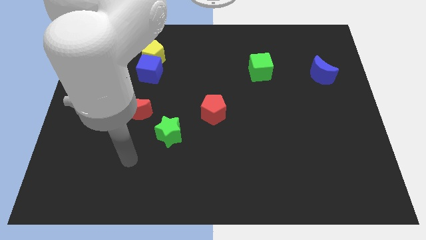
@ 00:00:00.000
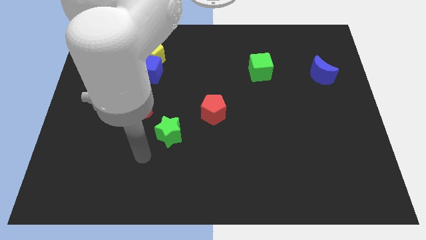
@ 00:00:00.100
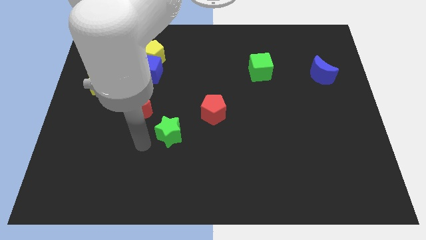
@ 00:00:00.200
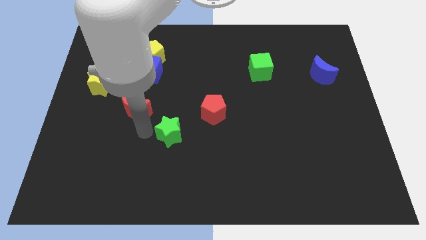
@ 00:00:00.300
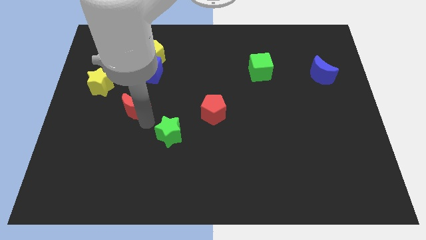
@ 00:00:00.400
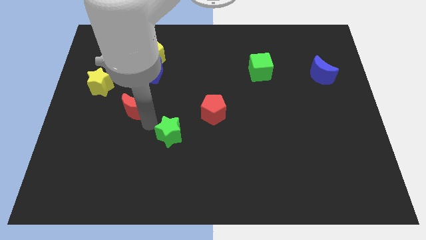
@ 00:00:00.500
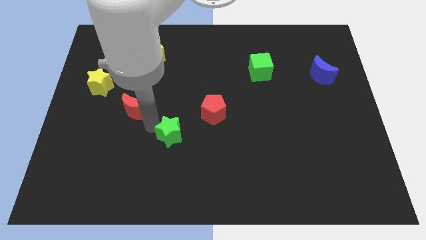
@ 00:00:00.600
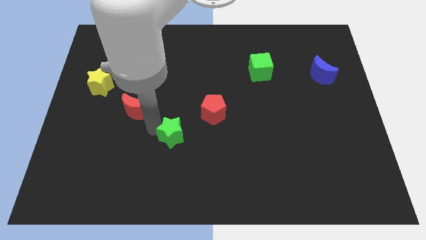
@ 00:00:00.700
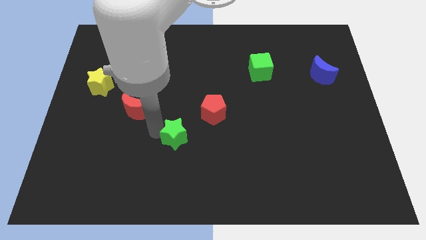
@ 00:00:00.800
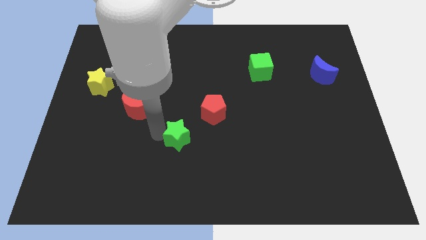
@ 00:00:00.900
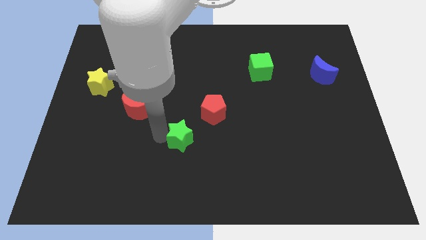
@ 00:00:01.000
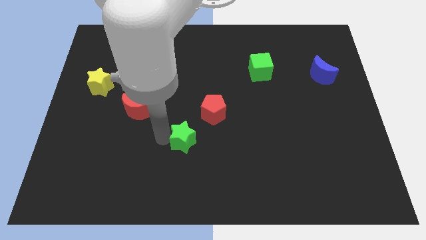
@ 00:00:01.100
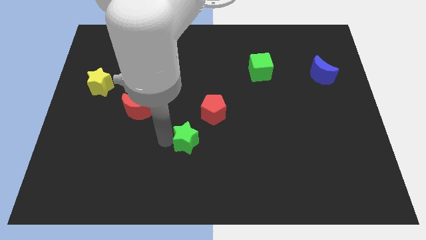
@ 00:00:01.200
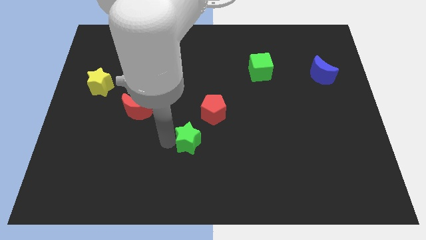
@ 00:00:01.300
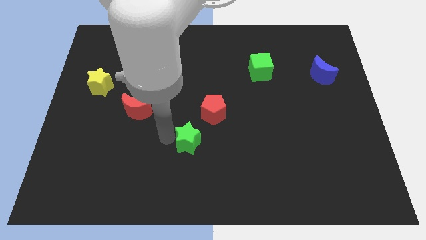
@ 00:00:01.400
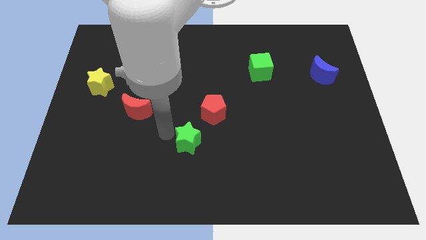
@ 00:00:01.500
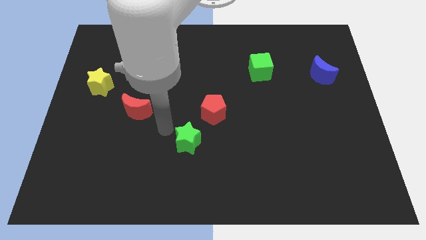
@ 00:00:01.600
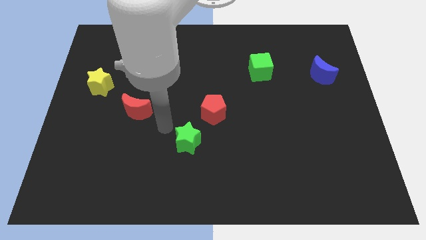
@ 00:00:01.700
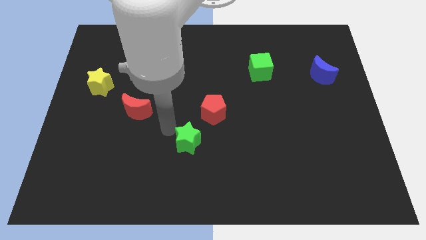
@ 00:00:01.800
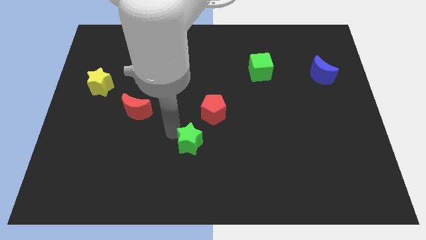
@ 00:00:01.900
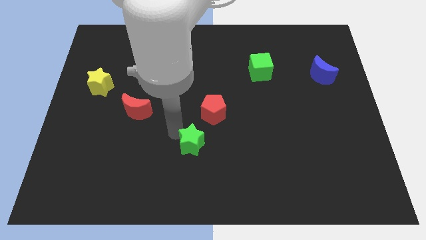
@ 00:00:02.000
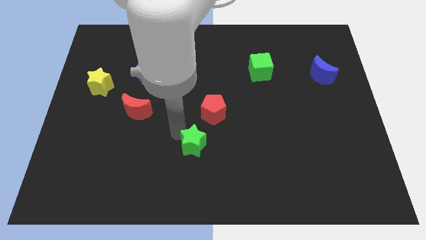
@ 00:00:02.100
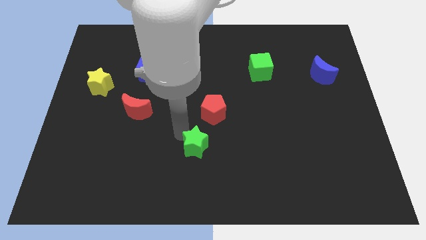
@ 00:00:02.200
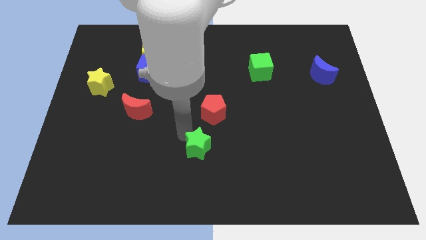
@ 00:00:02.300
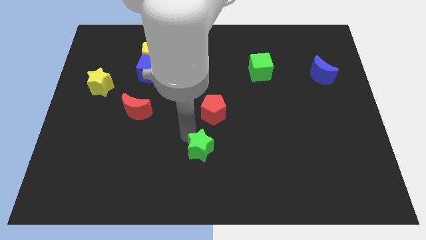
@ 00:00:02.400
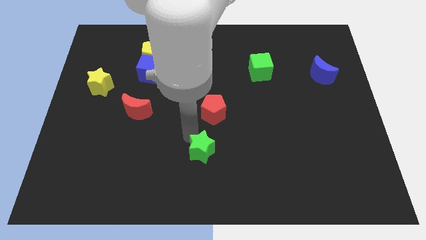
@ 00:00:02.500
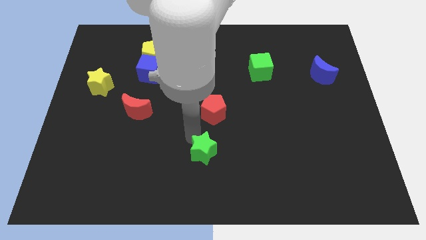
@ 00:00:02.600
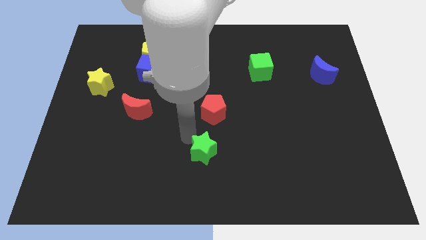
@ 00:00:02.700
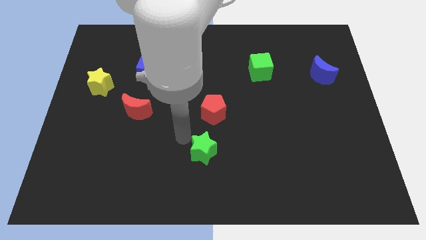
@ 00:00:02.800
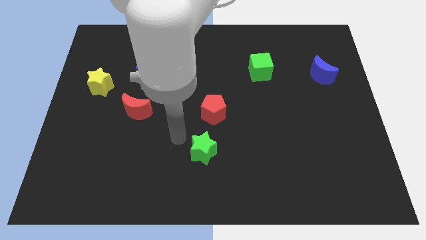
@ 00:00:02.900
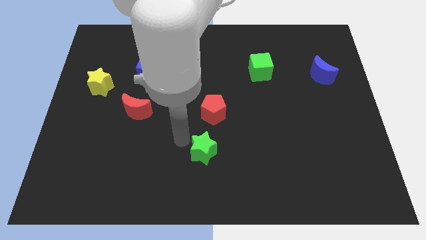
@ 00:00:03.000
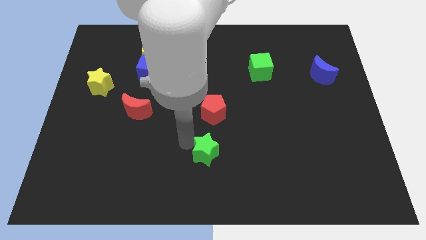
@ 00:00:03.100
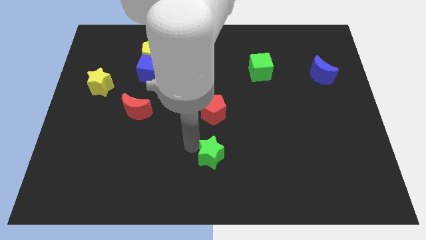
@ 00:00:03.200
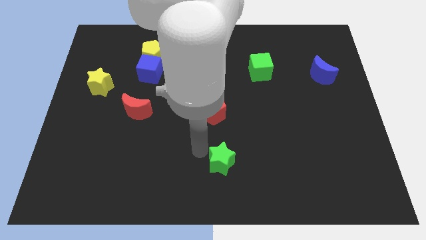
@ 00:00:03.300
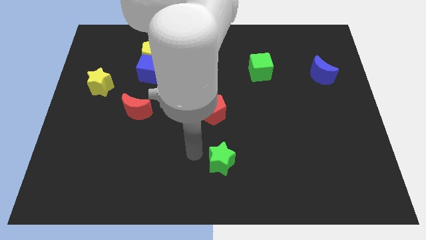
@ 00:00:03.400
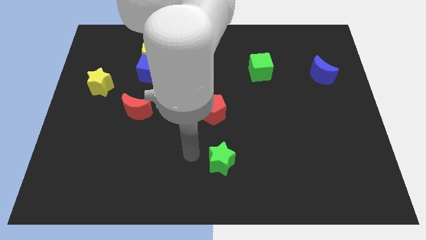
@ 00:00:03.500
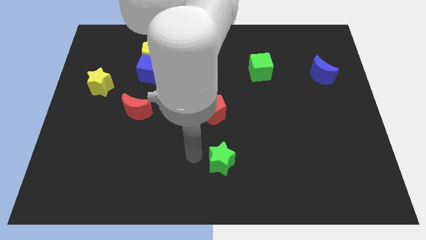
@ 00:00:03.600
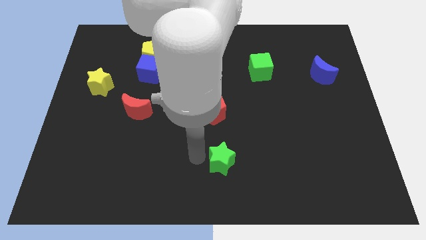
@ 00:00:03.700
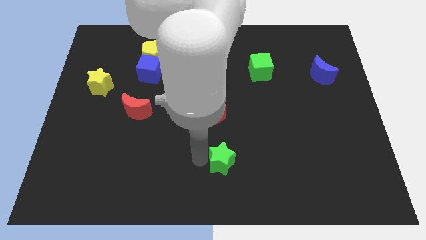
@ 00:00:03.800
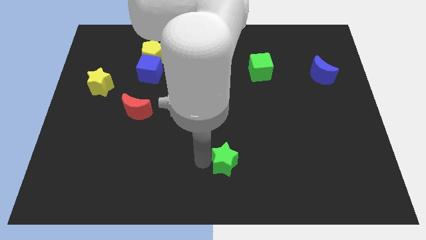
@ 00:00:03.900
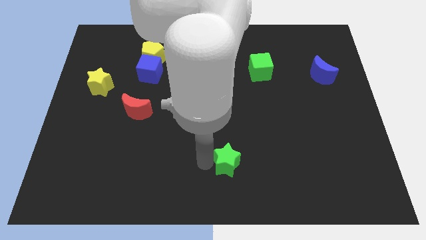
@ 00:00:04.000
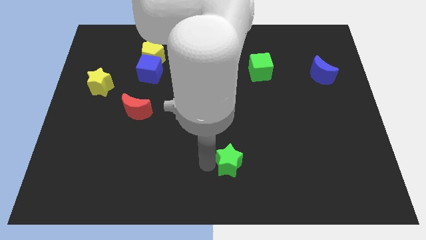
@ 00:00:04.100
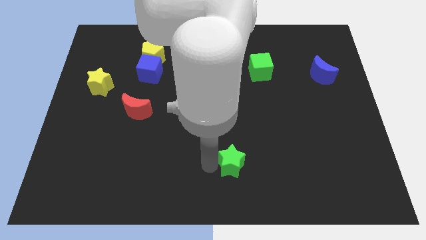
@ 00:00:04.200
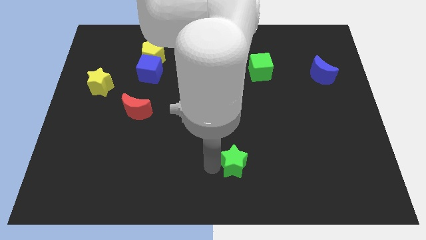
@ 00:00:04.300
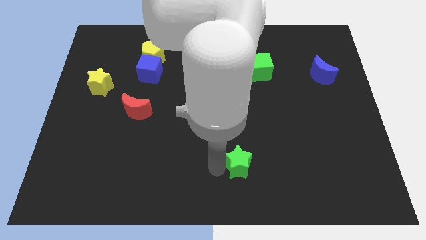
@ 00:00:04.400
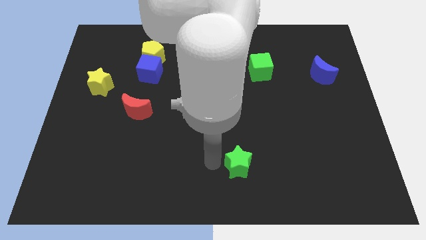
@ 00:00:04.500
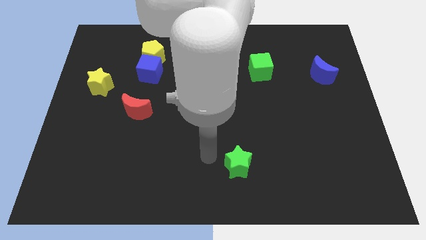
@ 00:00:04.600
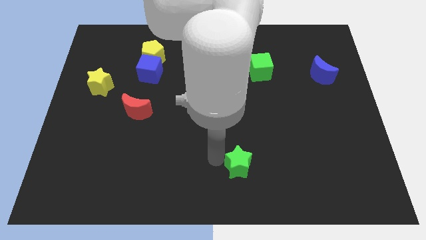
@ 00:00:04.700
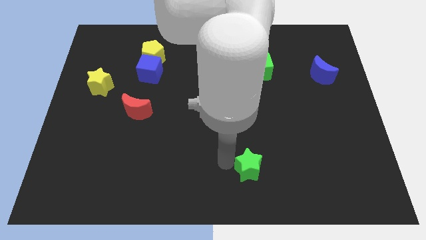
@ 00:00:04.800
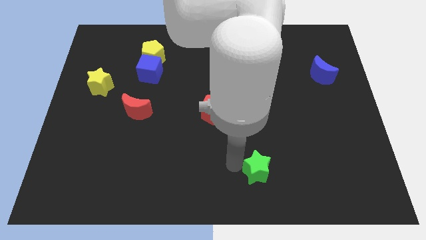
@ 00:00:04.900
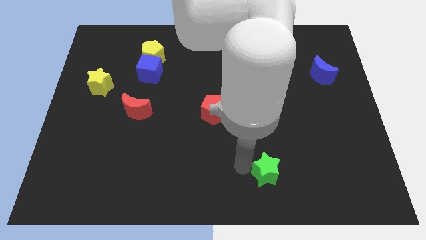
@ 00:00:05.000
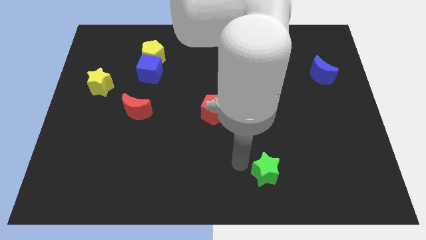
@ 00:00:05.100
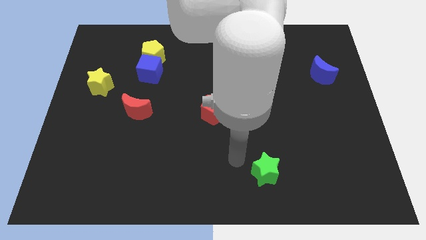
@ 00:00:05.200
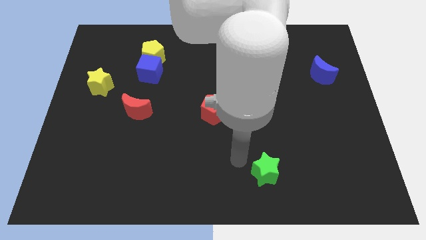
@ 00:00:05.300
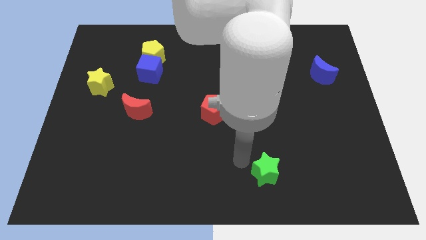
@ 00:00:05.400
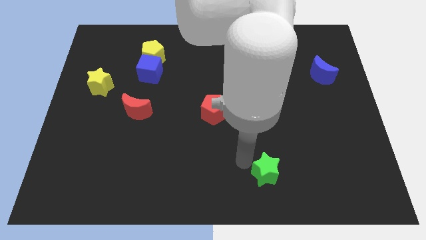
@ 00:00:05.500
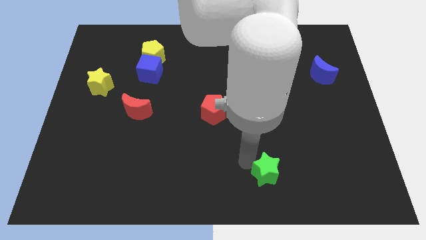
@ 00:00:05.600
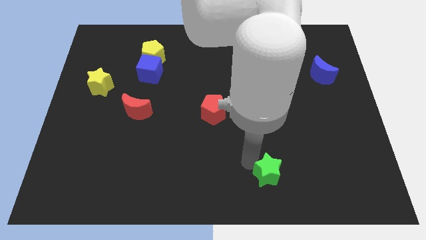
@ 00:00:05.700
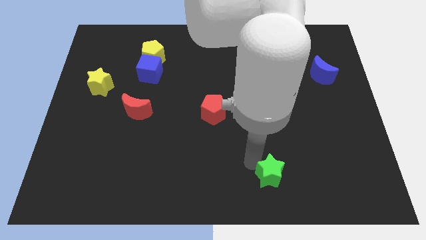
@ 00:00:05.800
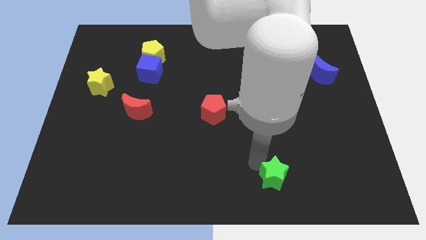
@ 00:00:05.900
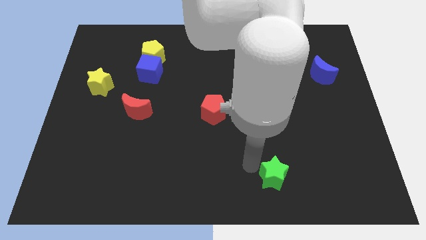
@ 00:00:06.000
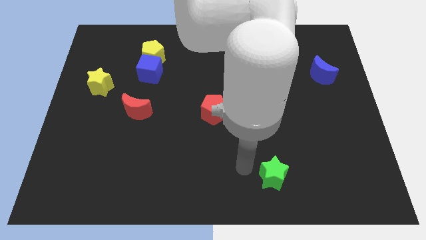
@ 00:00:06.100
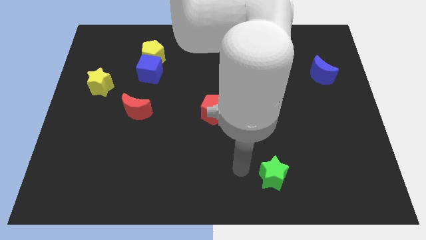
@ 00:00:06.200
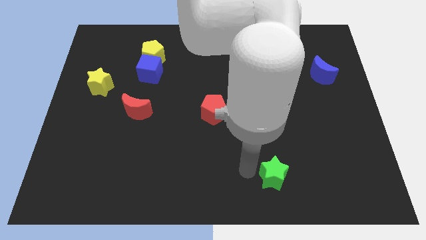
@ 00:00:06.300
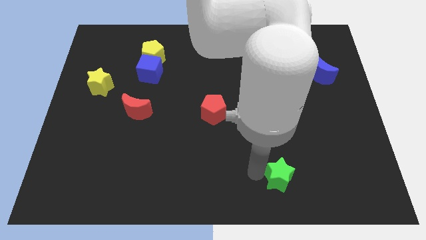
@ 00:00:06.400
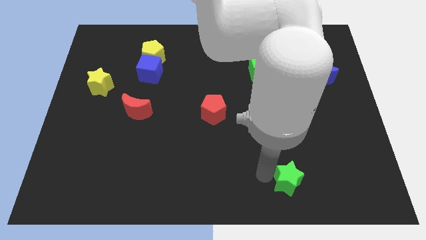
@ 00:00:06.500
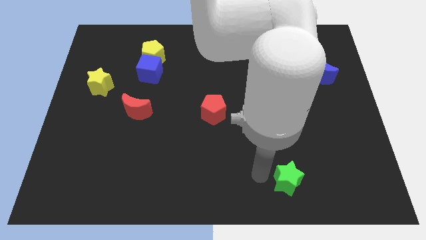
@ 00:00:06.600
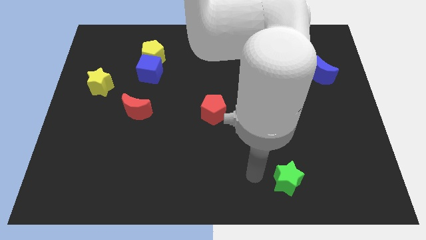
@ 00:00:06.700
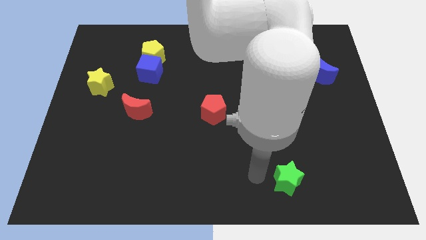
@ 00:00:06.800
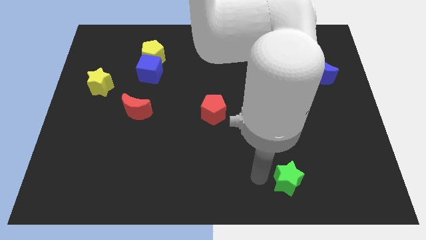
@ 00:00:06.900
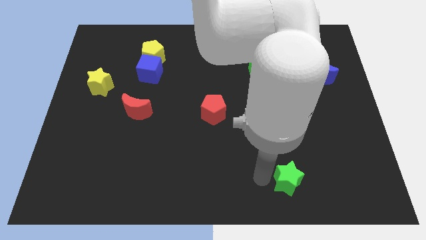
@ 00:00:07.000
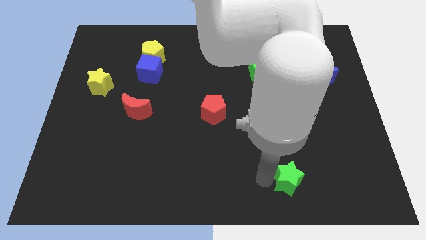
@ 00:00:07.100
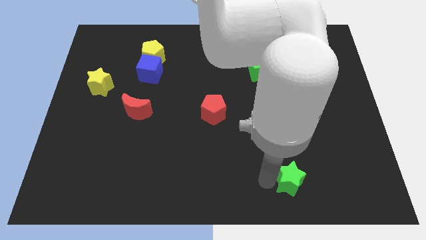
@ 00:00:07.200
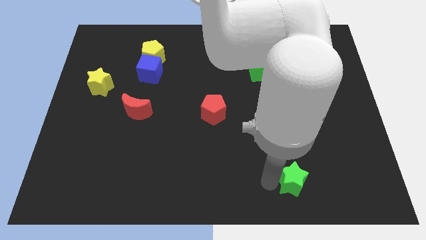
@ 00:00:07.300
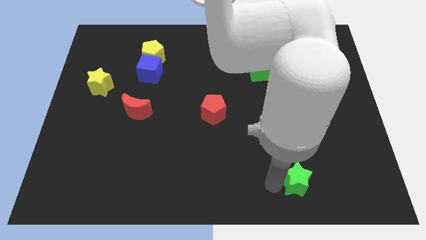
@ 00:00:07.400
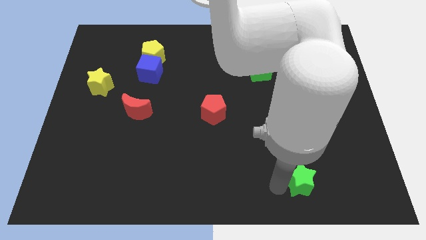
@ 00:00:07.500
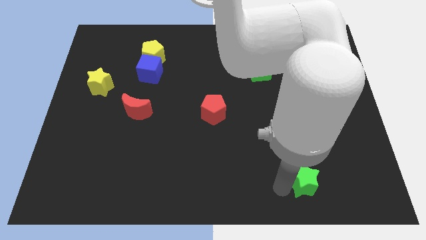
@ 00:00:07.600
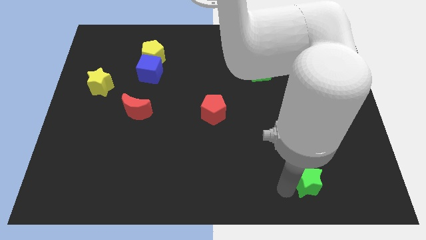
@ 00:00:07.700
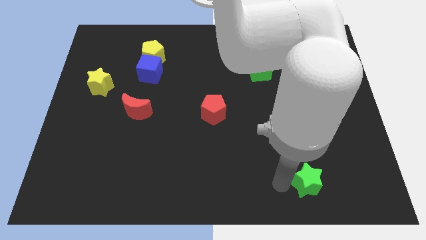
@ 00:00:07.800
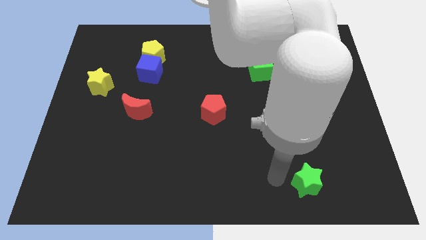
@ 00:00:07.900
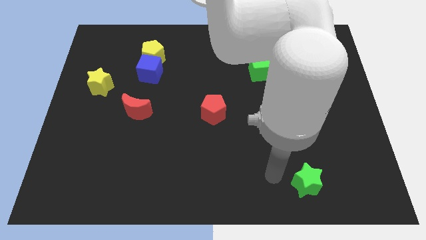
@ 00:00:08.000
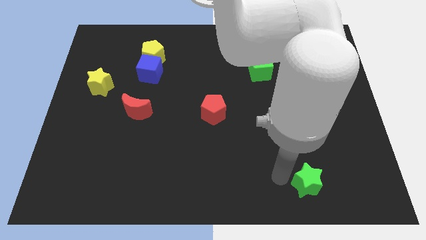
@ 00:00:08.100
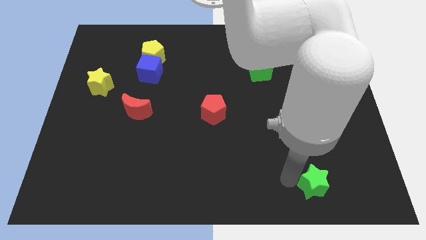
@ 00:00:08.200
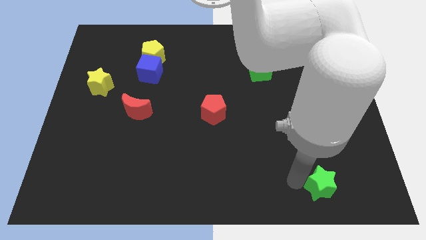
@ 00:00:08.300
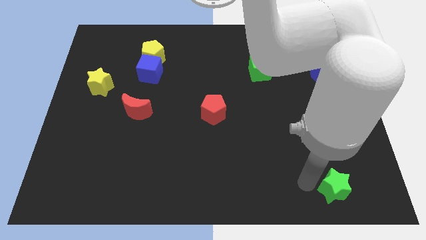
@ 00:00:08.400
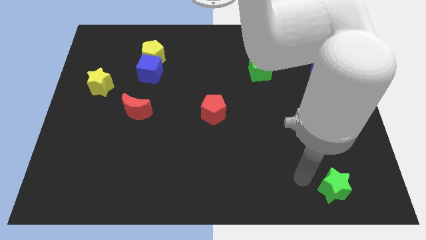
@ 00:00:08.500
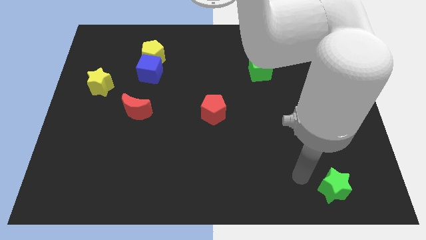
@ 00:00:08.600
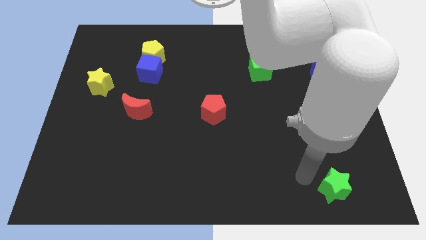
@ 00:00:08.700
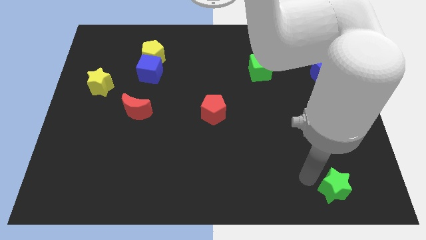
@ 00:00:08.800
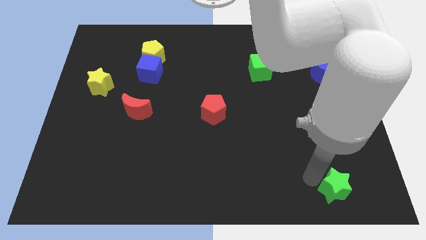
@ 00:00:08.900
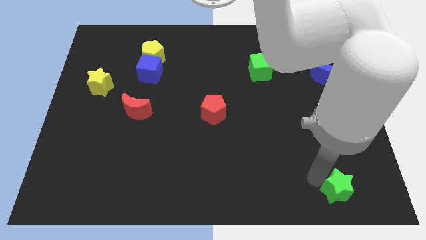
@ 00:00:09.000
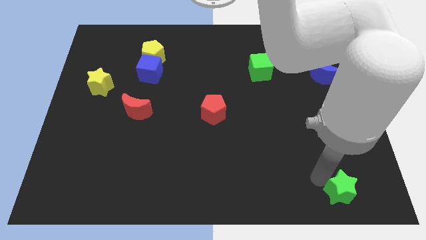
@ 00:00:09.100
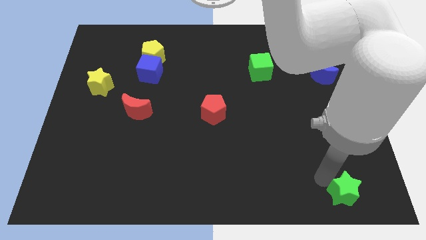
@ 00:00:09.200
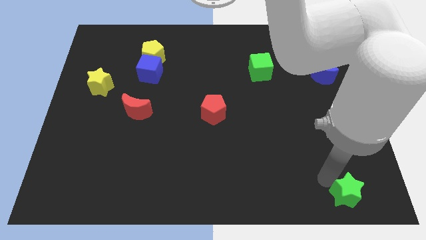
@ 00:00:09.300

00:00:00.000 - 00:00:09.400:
slide the green star to the bottom right corner
